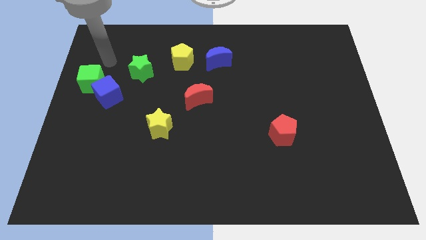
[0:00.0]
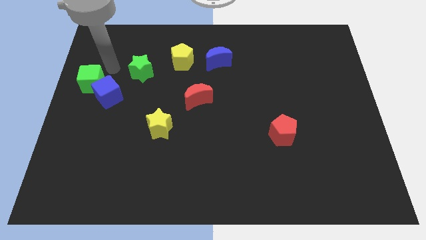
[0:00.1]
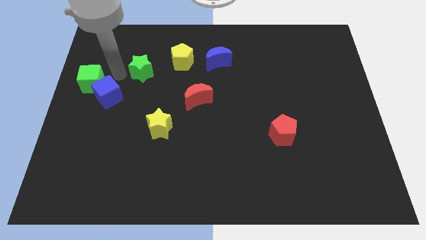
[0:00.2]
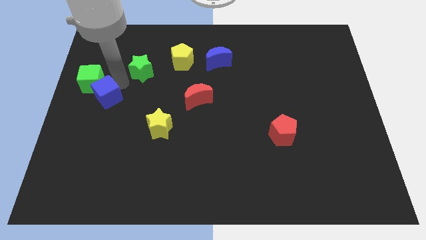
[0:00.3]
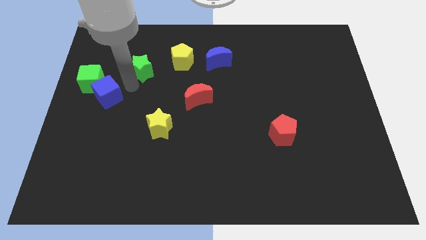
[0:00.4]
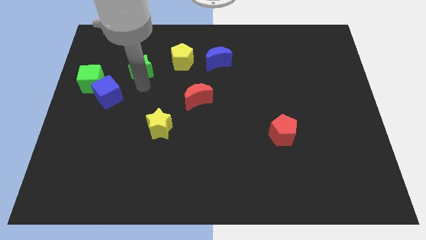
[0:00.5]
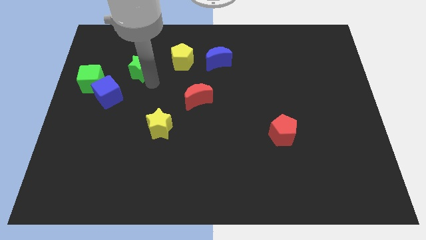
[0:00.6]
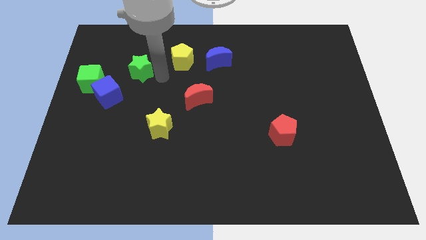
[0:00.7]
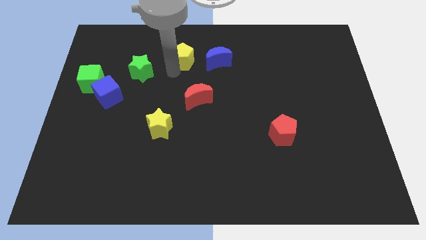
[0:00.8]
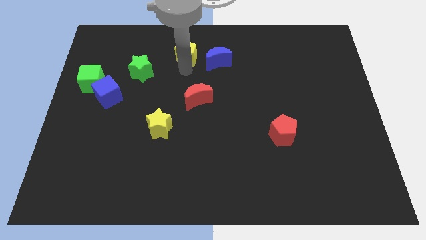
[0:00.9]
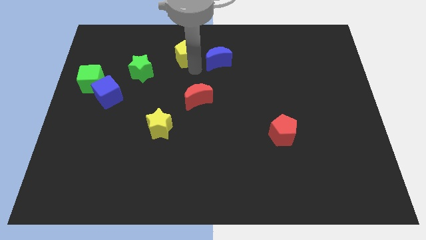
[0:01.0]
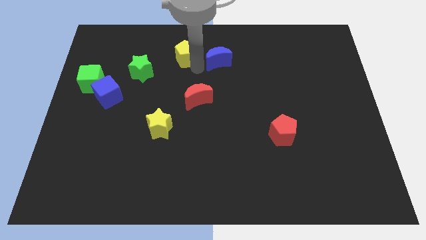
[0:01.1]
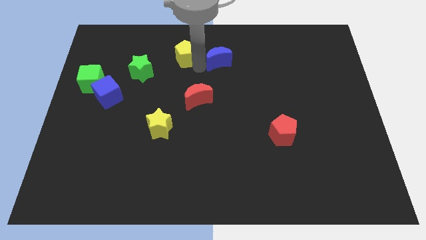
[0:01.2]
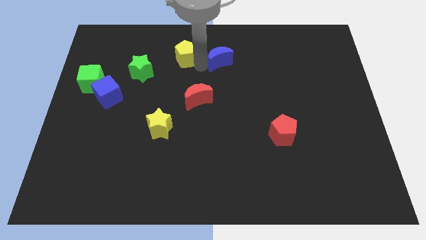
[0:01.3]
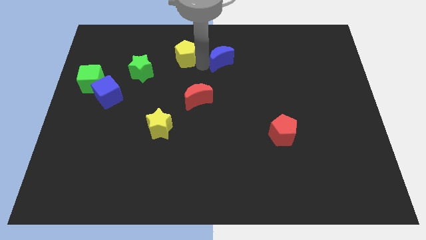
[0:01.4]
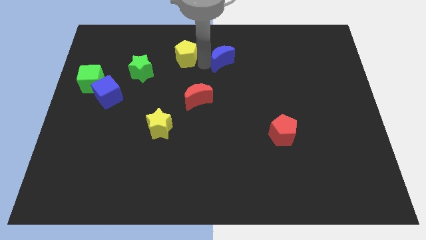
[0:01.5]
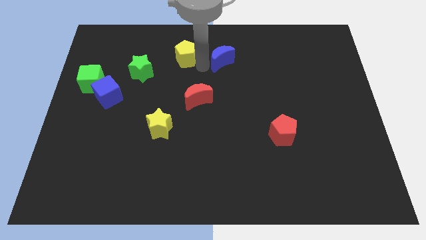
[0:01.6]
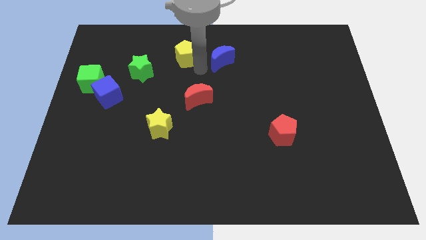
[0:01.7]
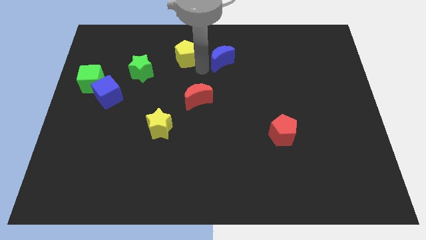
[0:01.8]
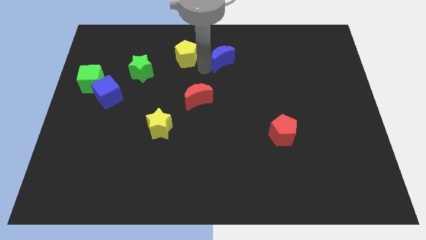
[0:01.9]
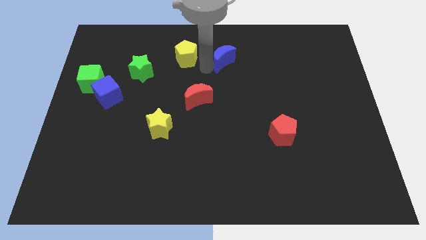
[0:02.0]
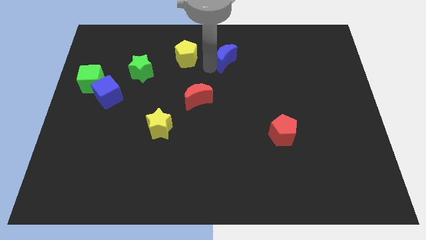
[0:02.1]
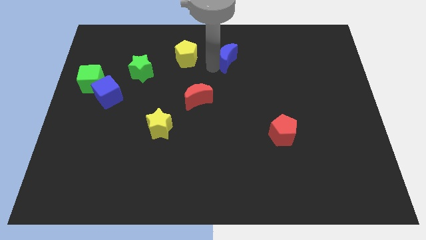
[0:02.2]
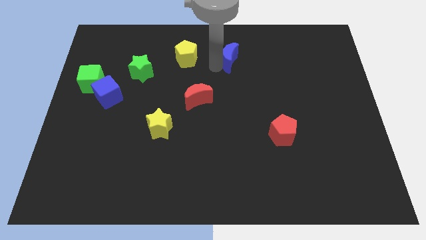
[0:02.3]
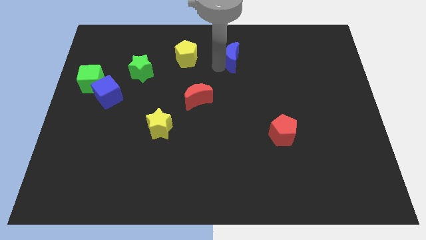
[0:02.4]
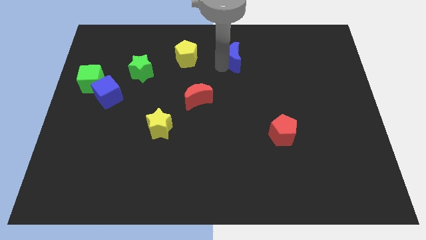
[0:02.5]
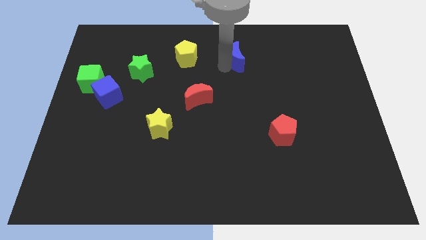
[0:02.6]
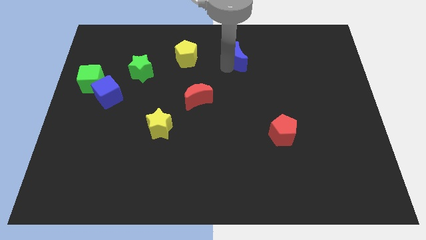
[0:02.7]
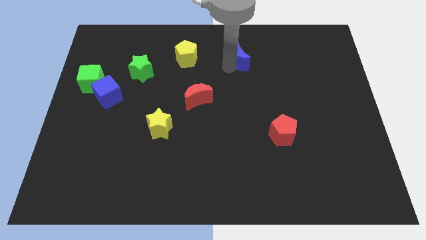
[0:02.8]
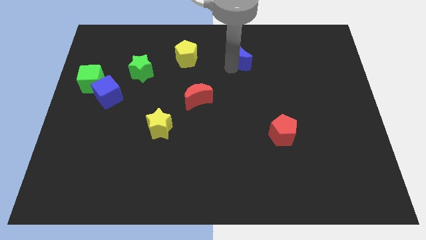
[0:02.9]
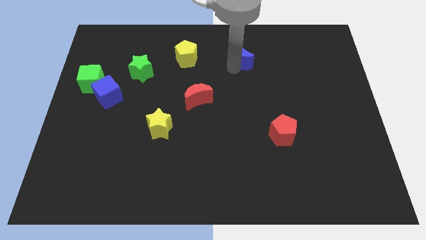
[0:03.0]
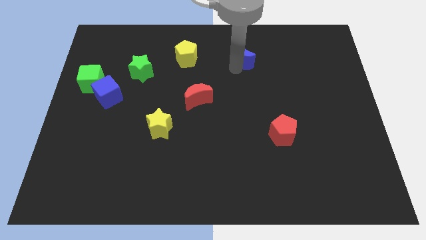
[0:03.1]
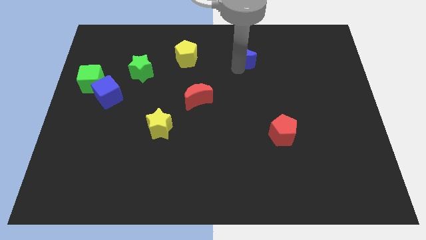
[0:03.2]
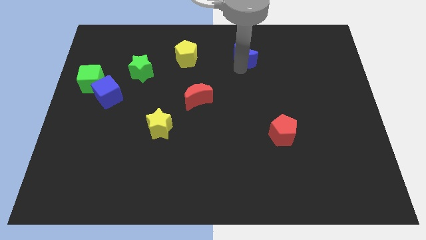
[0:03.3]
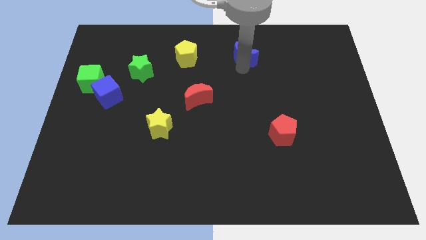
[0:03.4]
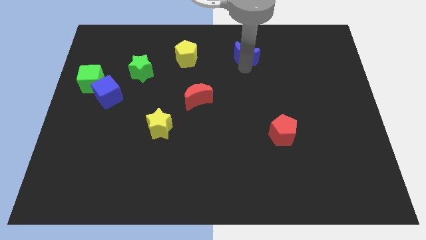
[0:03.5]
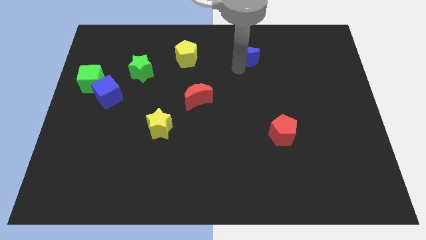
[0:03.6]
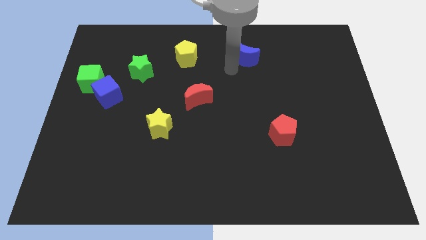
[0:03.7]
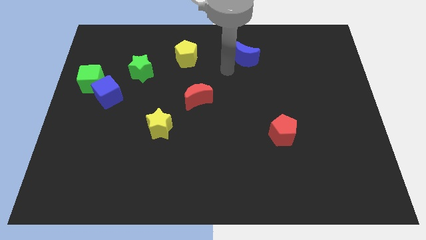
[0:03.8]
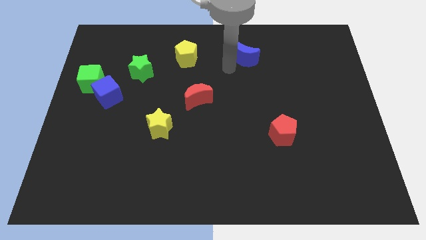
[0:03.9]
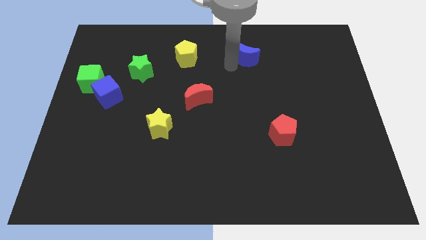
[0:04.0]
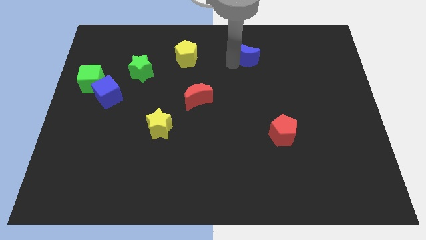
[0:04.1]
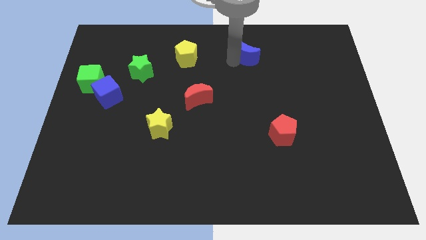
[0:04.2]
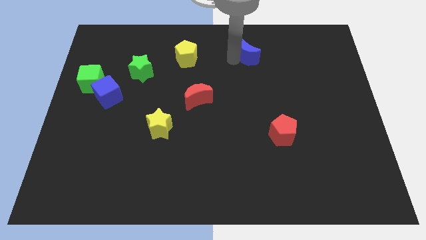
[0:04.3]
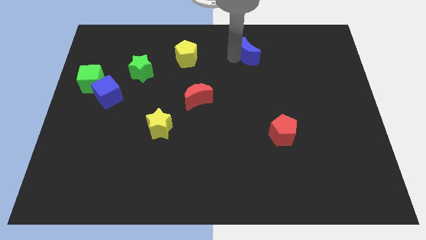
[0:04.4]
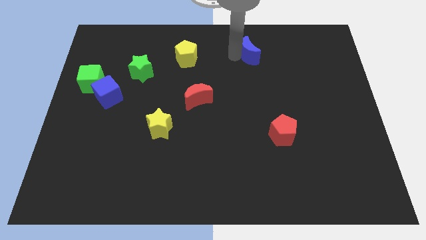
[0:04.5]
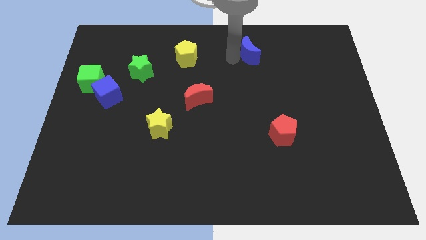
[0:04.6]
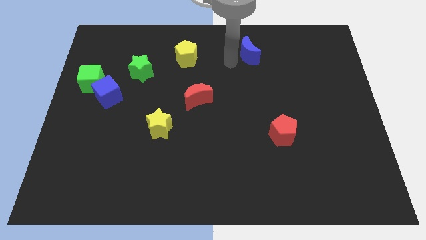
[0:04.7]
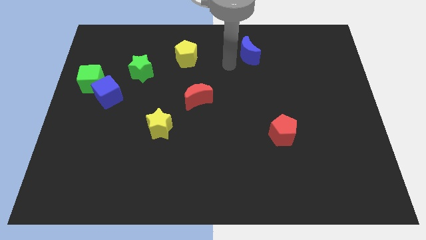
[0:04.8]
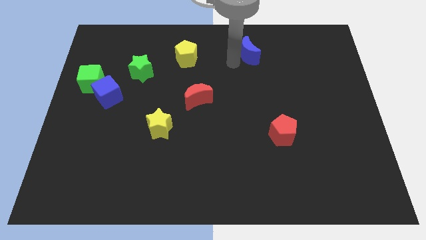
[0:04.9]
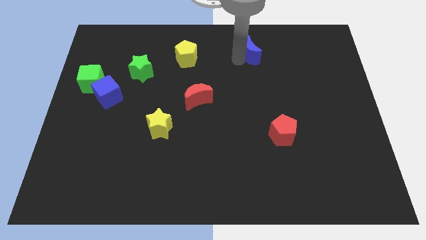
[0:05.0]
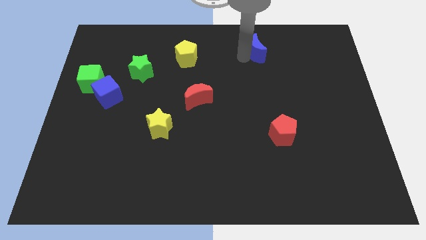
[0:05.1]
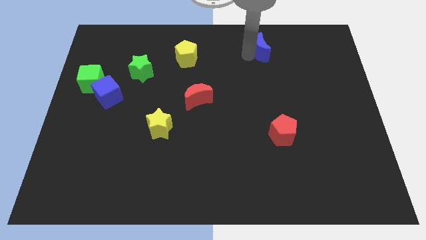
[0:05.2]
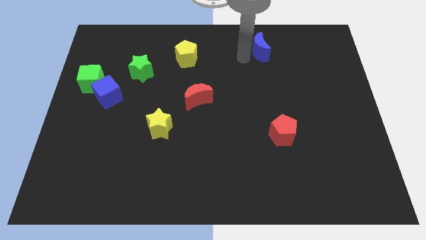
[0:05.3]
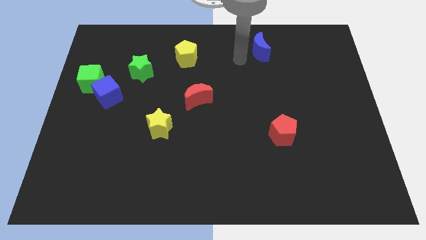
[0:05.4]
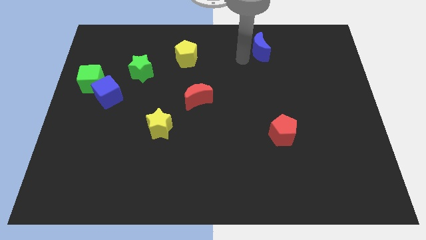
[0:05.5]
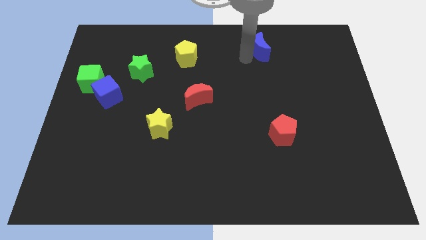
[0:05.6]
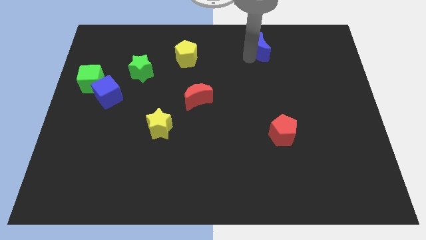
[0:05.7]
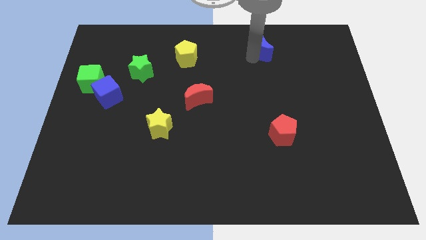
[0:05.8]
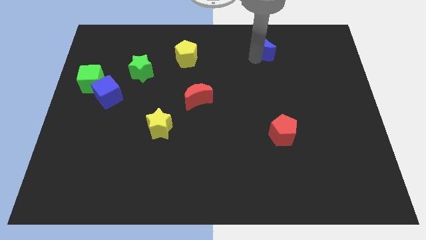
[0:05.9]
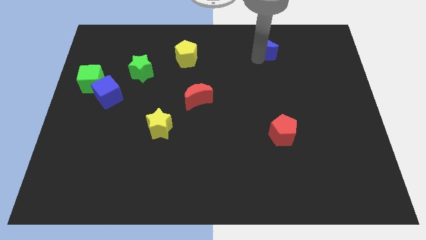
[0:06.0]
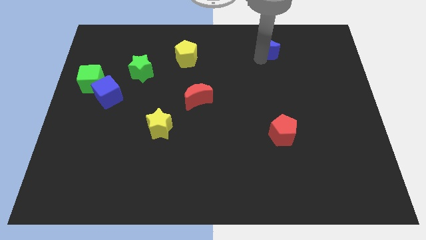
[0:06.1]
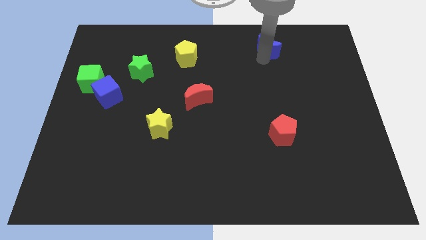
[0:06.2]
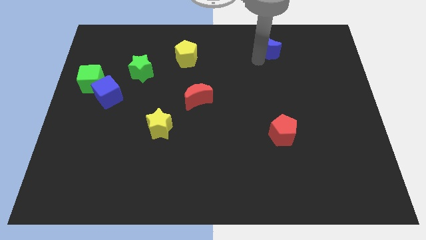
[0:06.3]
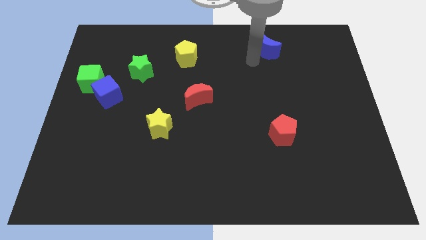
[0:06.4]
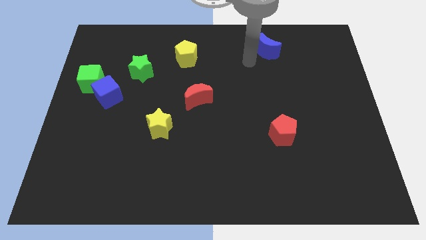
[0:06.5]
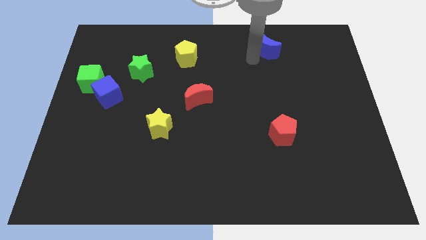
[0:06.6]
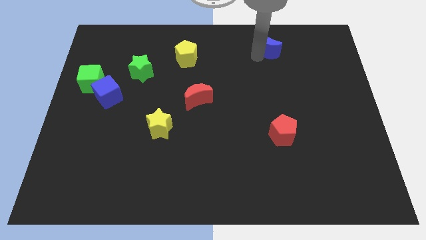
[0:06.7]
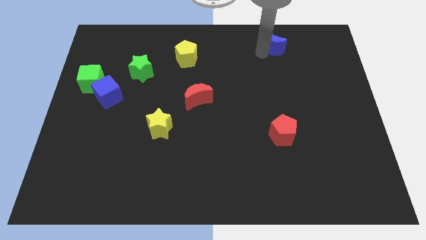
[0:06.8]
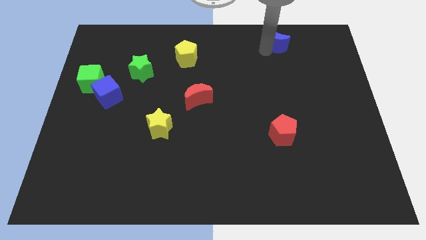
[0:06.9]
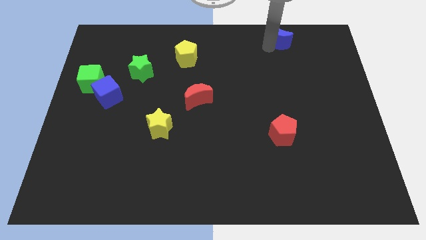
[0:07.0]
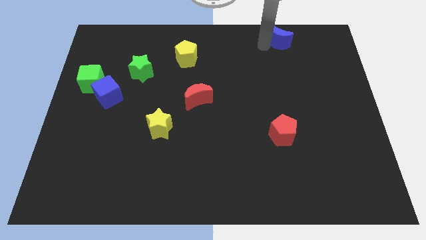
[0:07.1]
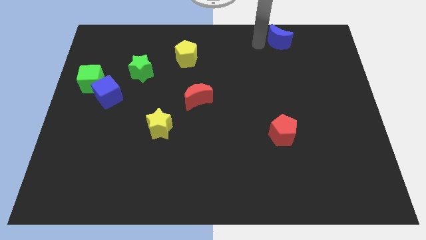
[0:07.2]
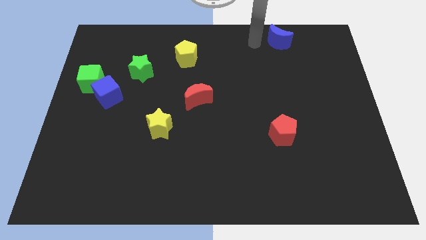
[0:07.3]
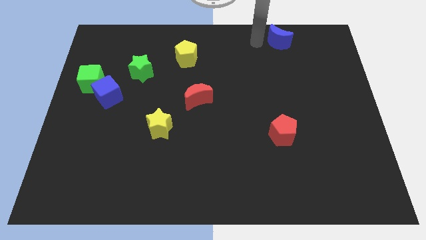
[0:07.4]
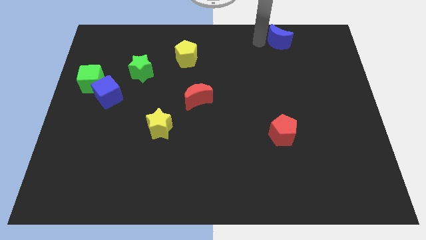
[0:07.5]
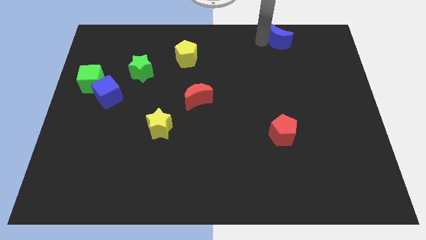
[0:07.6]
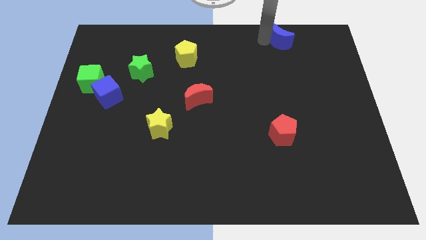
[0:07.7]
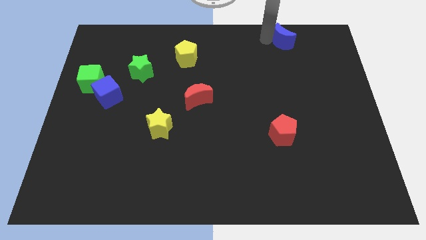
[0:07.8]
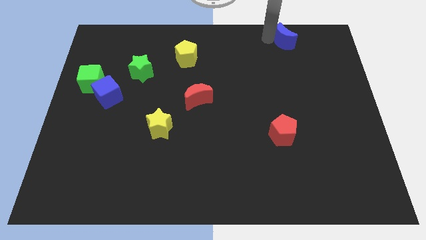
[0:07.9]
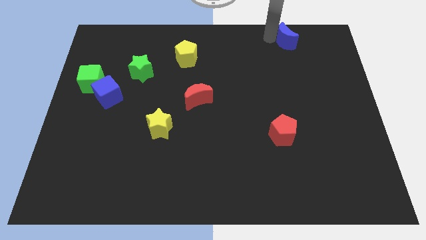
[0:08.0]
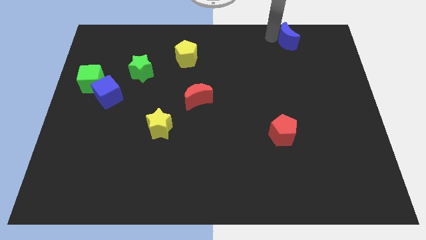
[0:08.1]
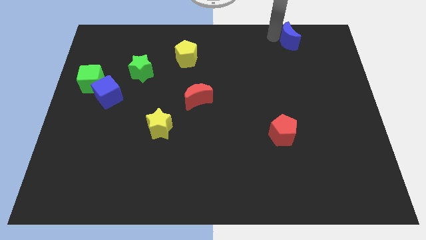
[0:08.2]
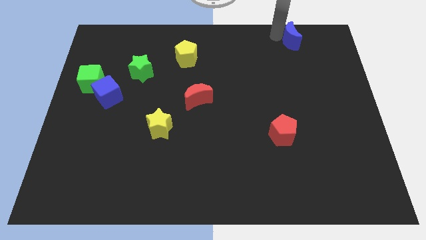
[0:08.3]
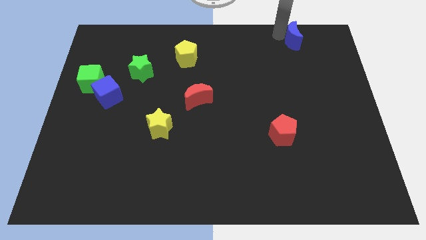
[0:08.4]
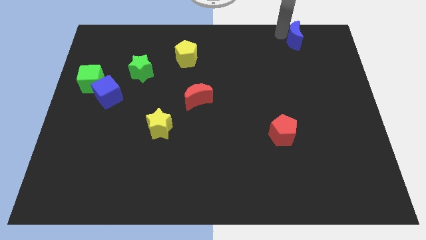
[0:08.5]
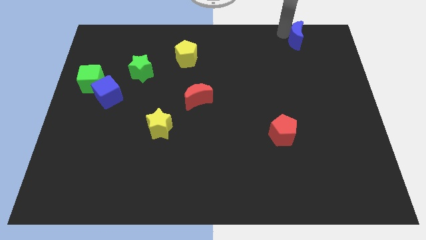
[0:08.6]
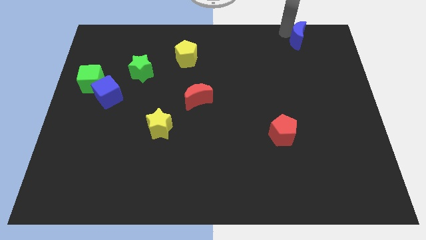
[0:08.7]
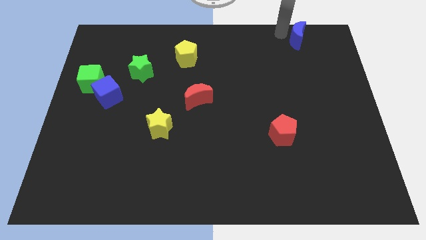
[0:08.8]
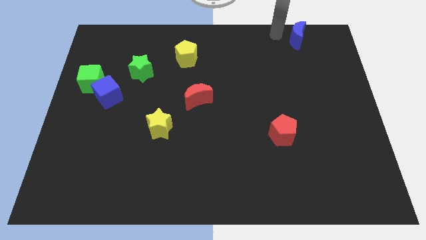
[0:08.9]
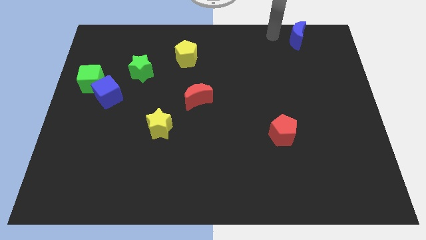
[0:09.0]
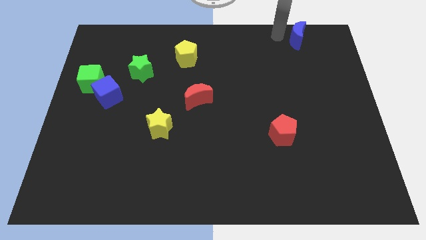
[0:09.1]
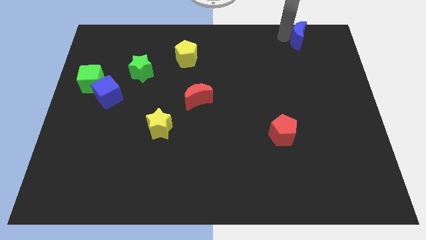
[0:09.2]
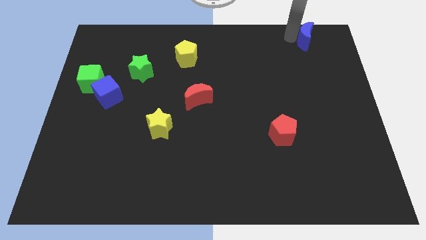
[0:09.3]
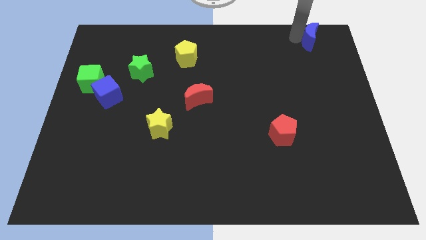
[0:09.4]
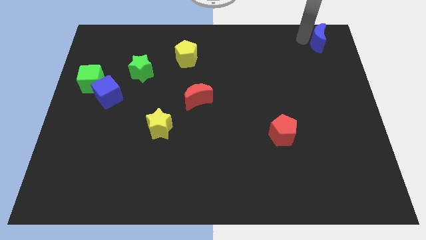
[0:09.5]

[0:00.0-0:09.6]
move the blue moon to the top right of the board
